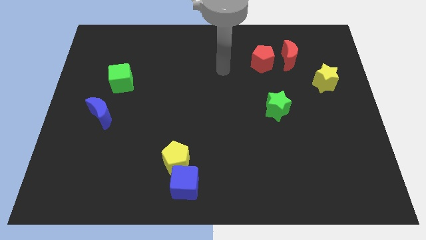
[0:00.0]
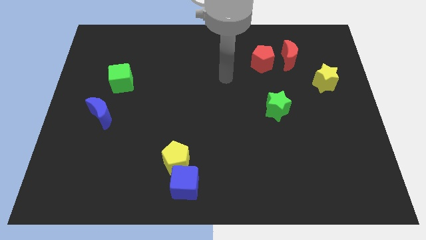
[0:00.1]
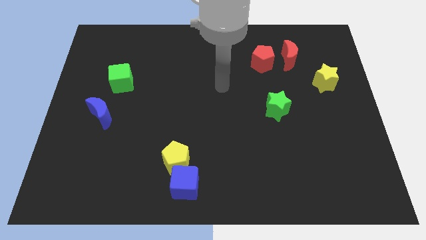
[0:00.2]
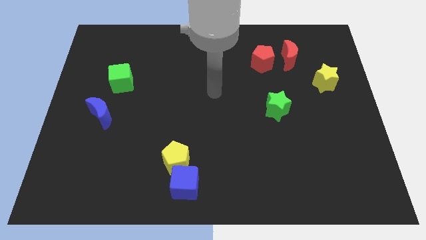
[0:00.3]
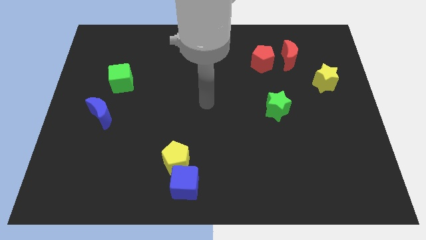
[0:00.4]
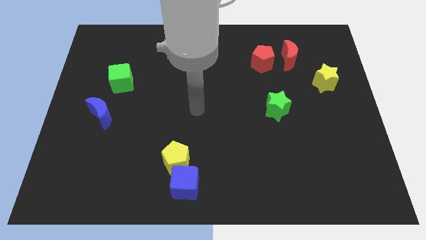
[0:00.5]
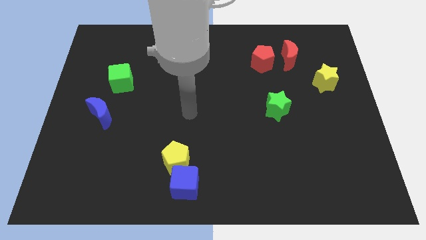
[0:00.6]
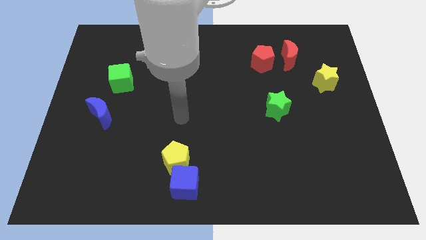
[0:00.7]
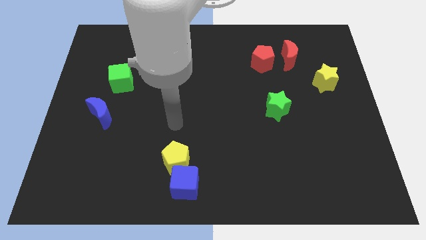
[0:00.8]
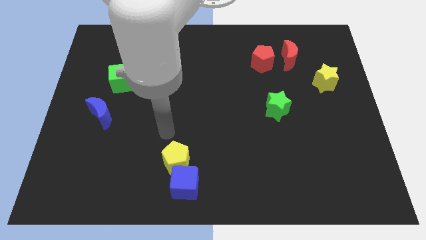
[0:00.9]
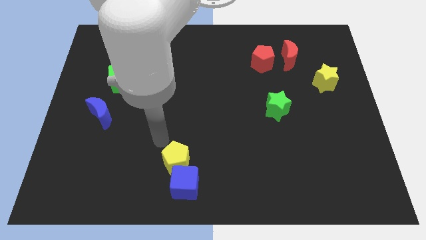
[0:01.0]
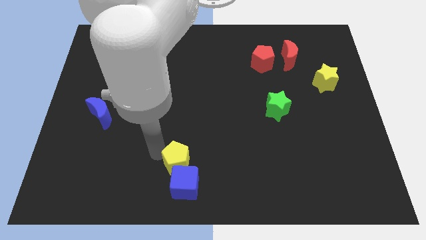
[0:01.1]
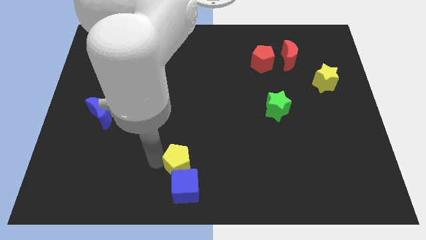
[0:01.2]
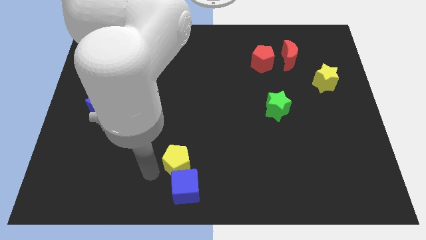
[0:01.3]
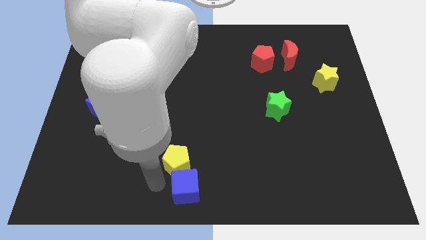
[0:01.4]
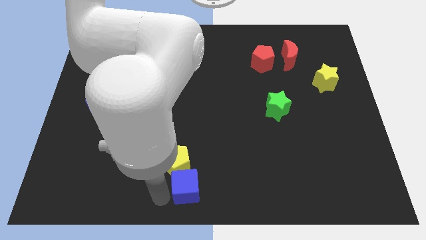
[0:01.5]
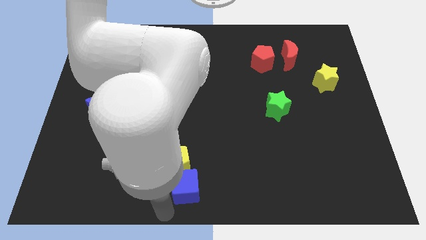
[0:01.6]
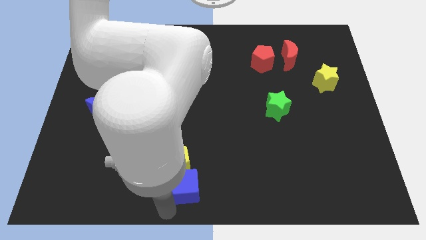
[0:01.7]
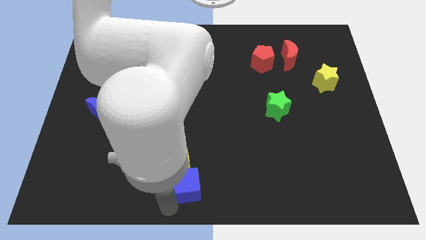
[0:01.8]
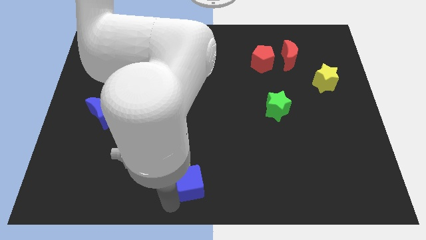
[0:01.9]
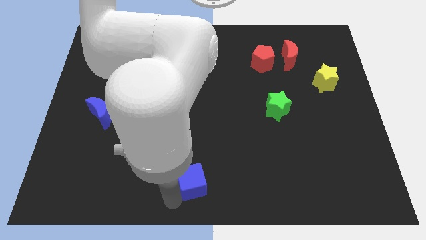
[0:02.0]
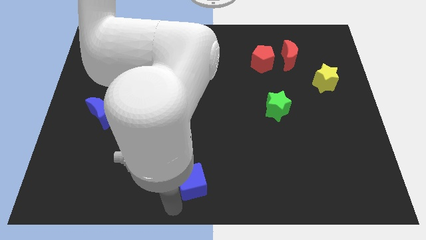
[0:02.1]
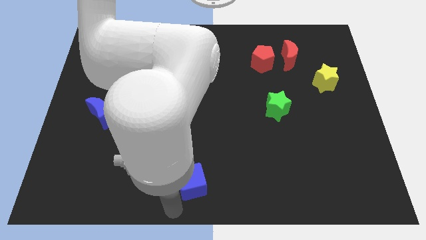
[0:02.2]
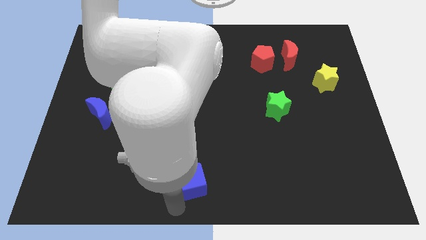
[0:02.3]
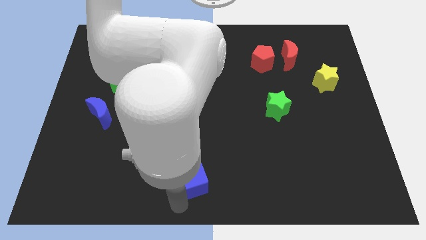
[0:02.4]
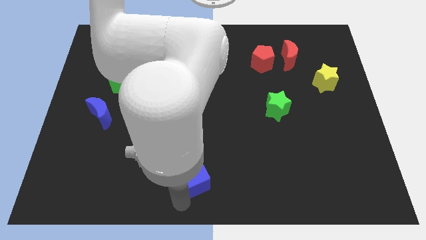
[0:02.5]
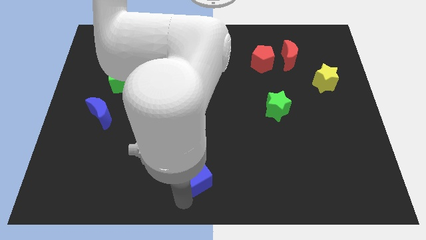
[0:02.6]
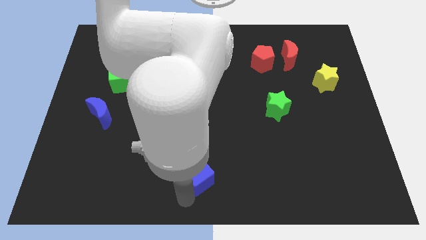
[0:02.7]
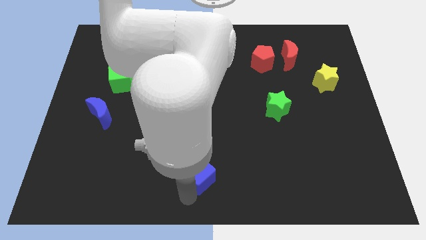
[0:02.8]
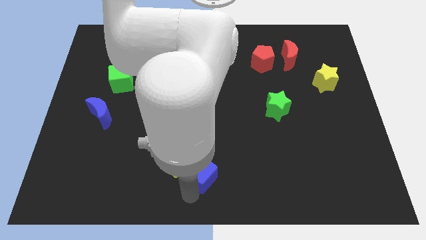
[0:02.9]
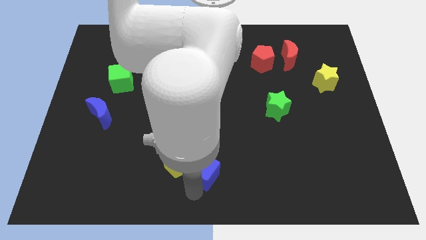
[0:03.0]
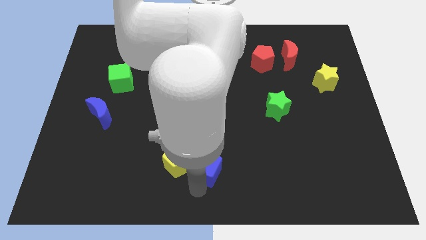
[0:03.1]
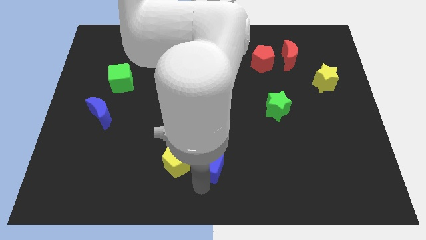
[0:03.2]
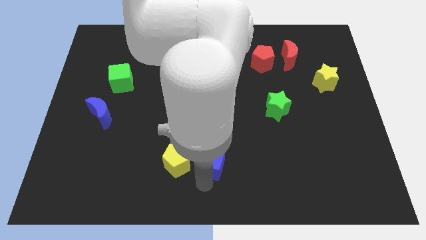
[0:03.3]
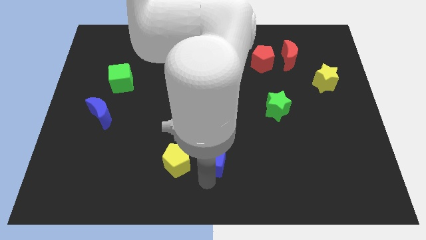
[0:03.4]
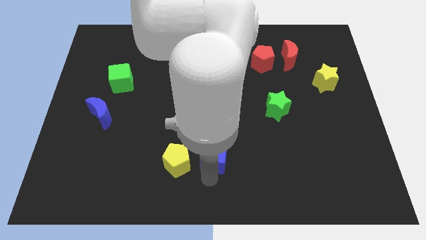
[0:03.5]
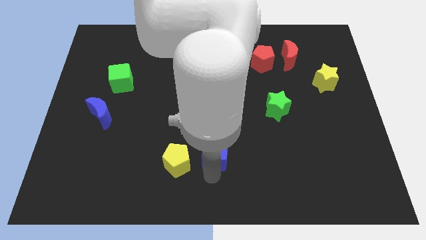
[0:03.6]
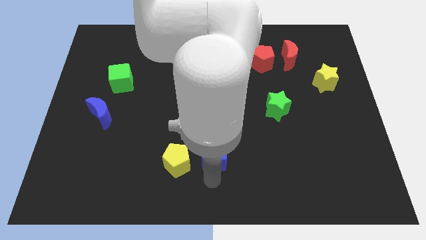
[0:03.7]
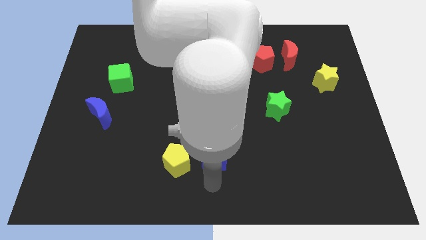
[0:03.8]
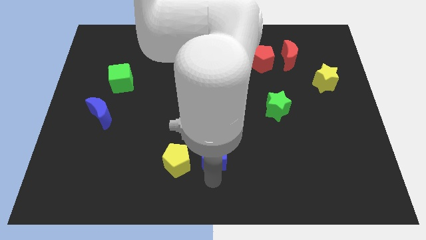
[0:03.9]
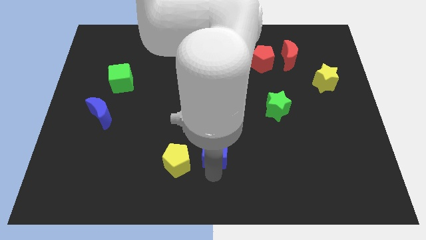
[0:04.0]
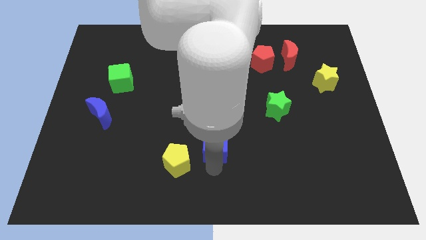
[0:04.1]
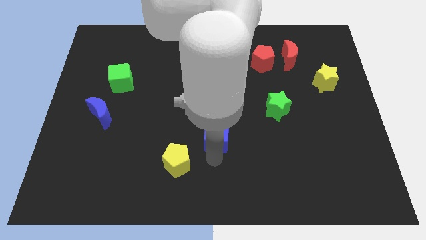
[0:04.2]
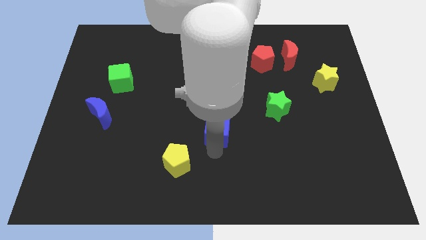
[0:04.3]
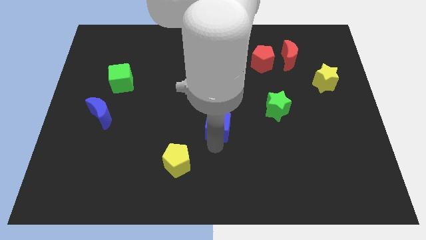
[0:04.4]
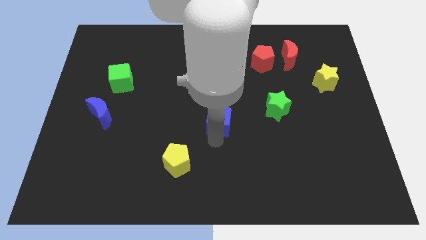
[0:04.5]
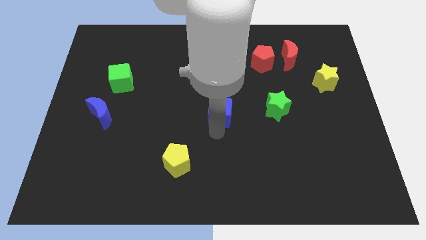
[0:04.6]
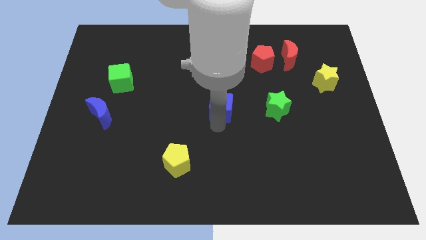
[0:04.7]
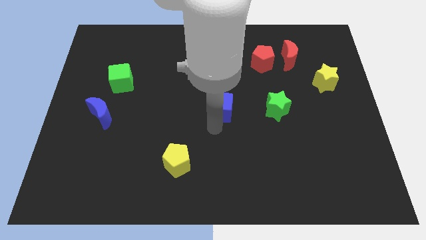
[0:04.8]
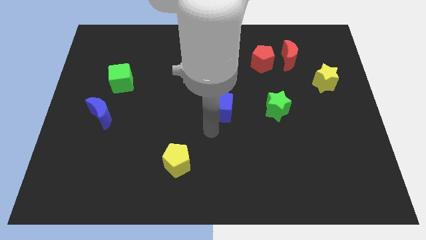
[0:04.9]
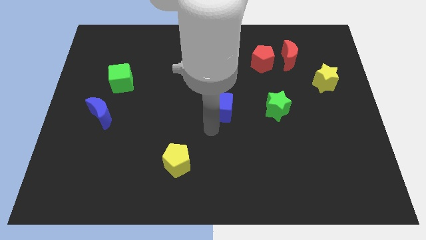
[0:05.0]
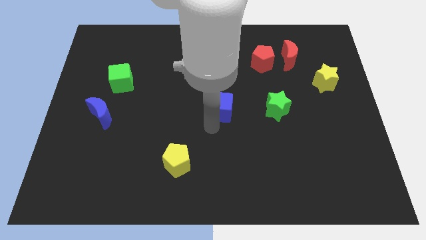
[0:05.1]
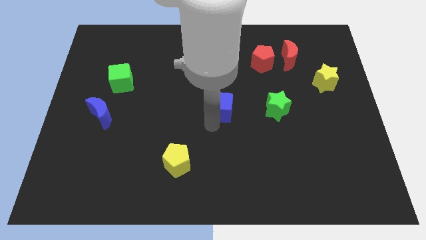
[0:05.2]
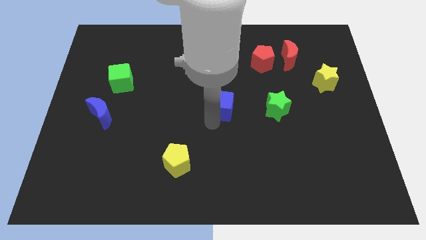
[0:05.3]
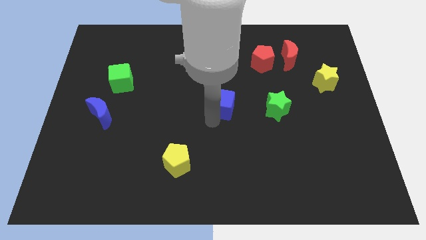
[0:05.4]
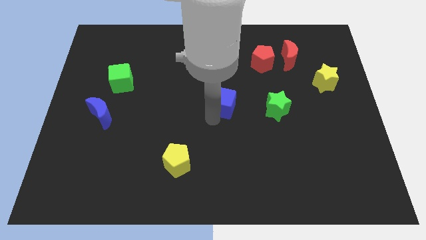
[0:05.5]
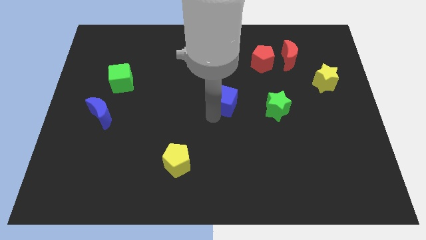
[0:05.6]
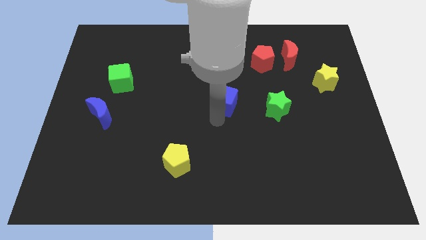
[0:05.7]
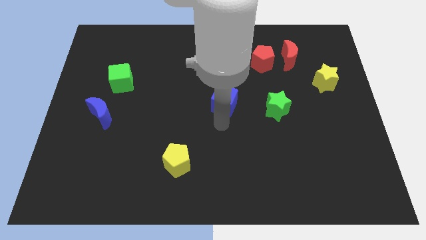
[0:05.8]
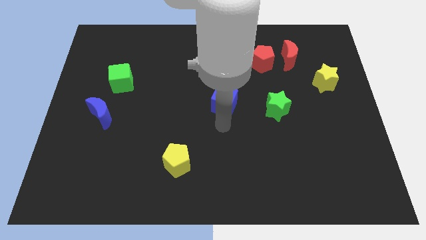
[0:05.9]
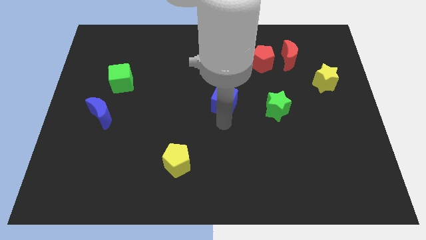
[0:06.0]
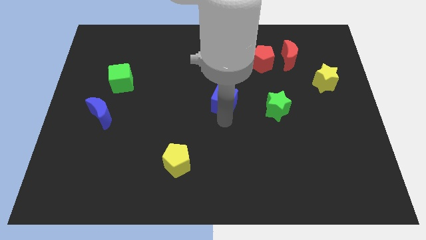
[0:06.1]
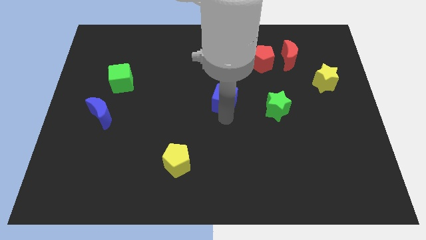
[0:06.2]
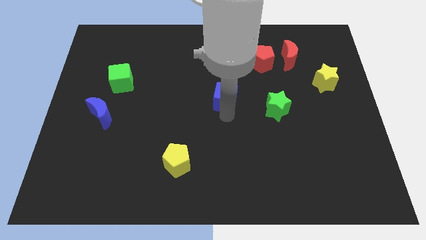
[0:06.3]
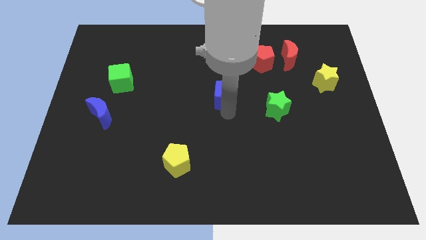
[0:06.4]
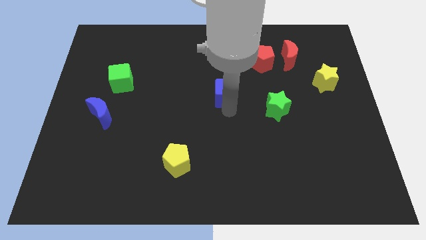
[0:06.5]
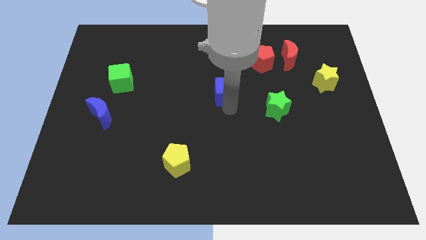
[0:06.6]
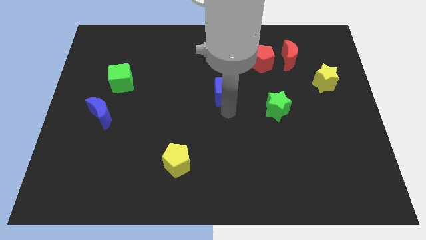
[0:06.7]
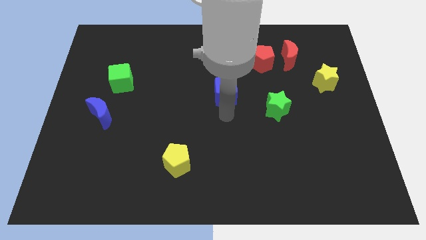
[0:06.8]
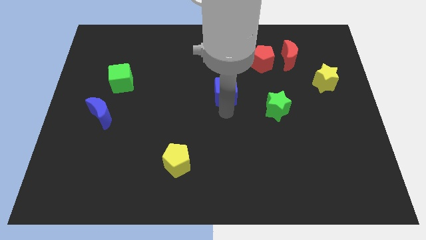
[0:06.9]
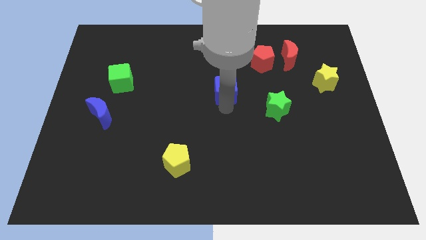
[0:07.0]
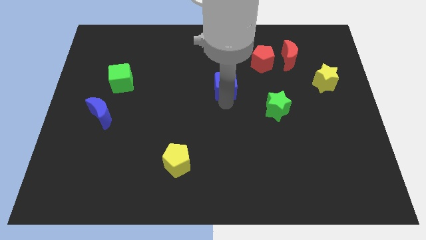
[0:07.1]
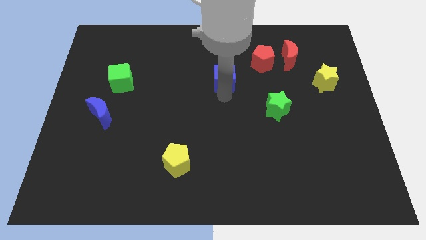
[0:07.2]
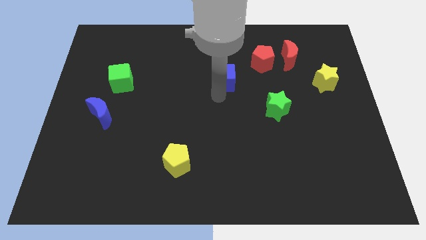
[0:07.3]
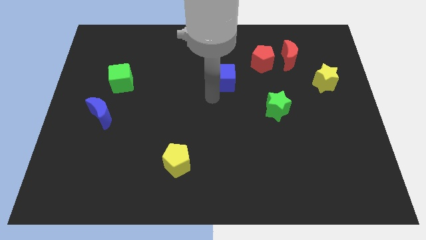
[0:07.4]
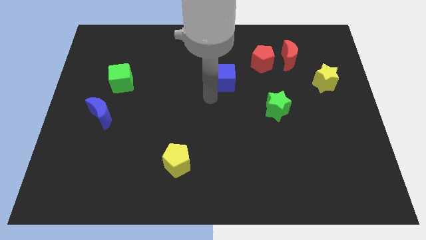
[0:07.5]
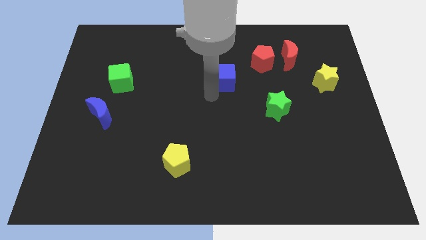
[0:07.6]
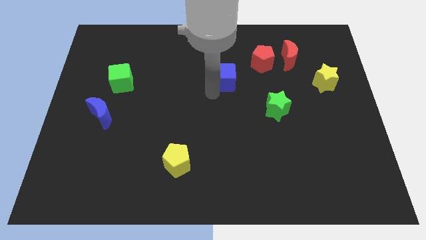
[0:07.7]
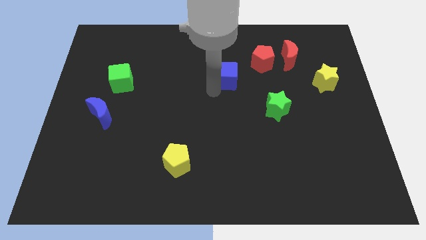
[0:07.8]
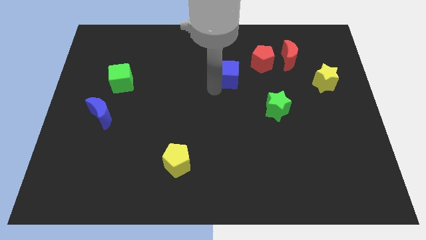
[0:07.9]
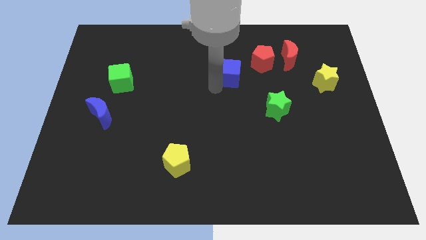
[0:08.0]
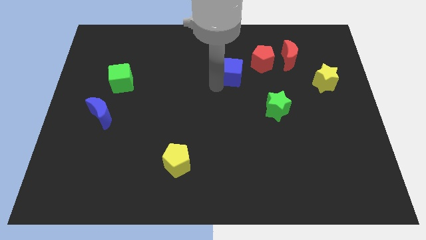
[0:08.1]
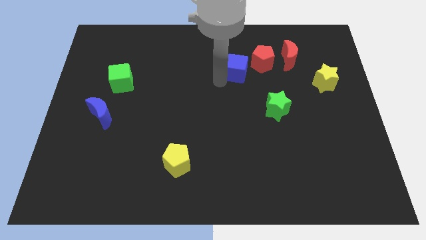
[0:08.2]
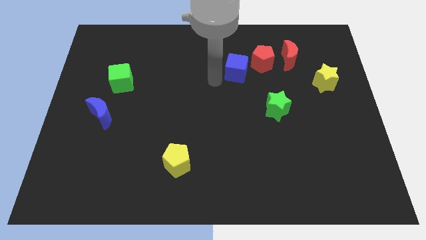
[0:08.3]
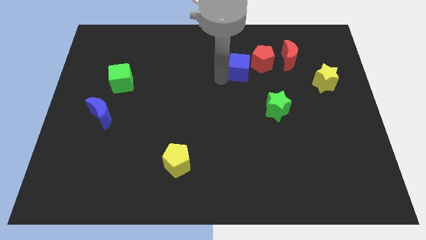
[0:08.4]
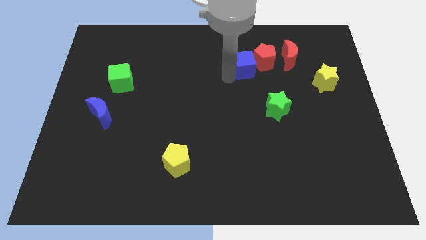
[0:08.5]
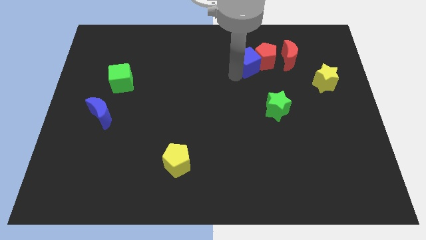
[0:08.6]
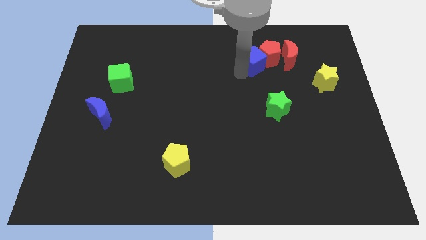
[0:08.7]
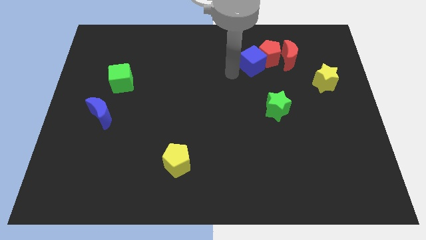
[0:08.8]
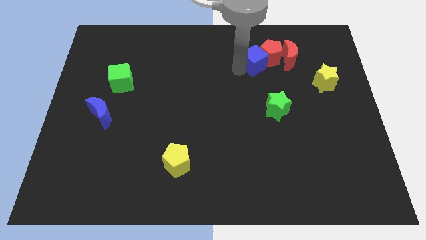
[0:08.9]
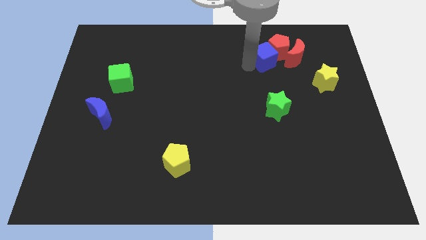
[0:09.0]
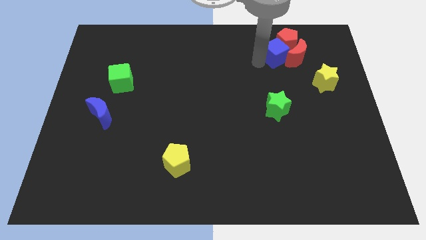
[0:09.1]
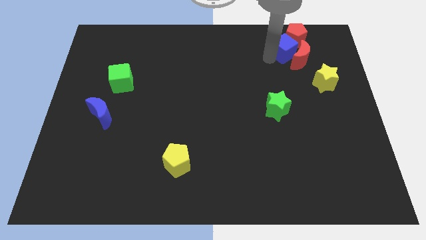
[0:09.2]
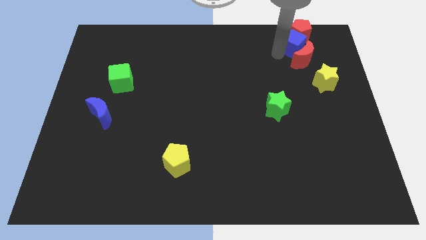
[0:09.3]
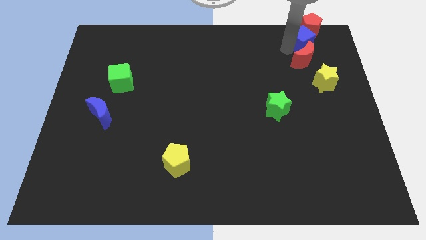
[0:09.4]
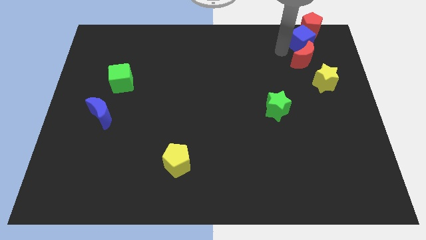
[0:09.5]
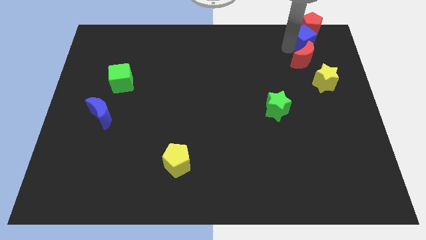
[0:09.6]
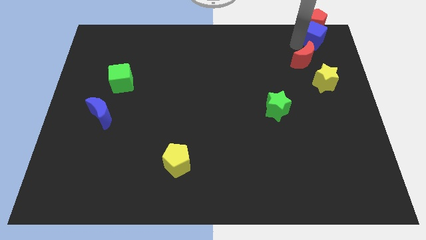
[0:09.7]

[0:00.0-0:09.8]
put the blue cube to the upper right corner
